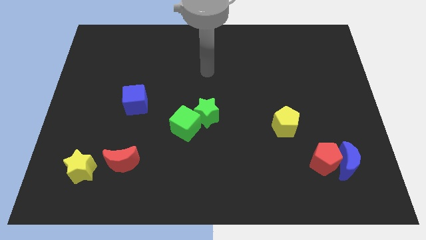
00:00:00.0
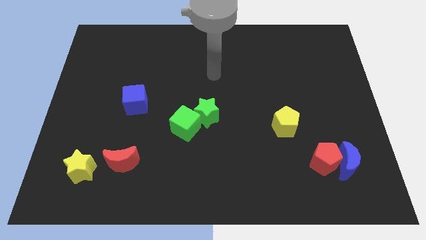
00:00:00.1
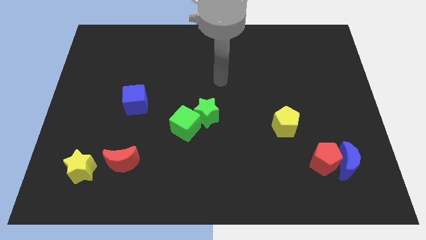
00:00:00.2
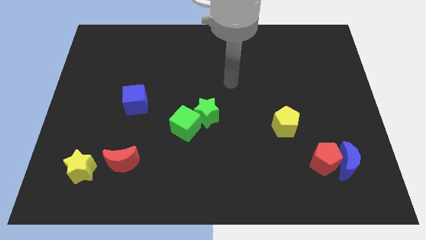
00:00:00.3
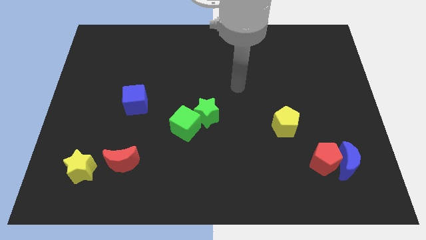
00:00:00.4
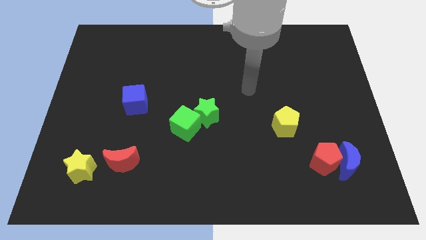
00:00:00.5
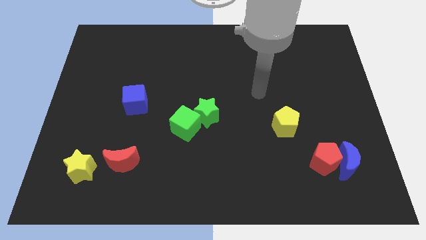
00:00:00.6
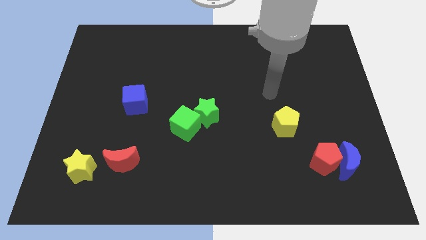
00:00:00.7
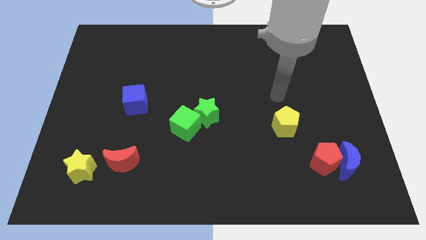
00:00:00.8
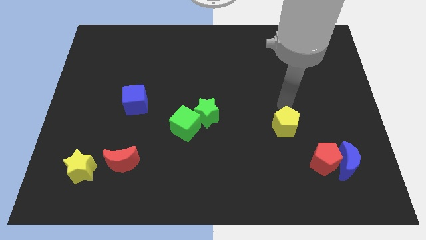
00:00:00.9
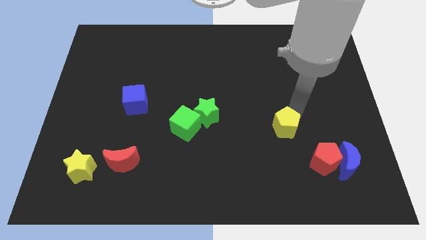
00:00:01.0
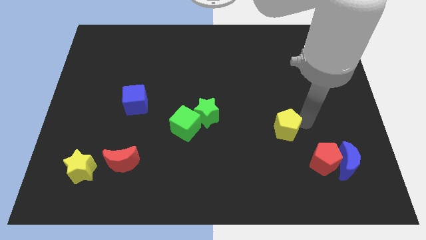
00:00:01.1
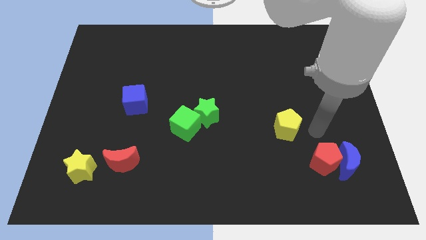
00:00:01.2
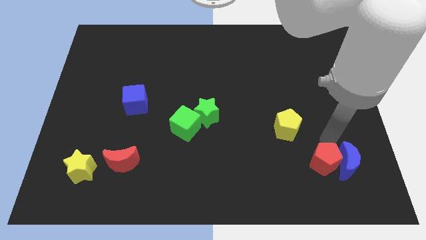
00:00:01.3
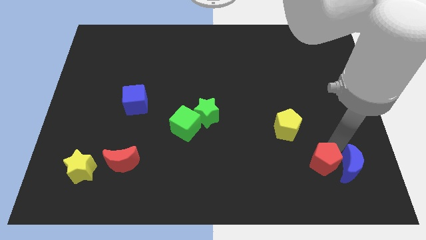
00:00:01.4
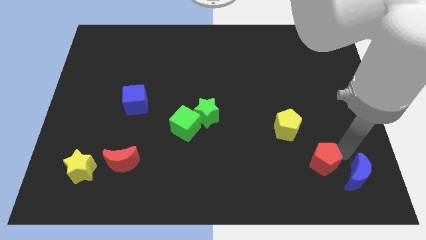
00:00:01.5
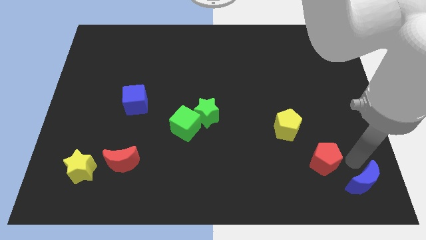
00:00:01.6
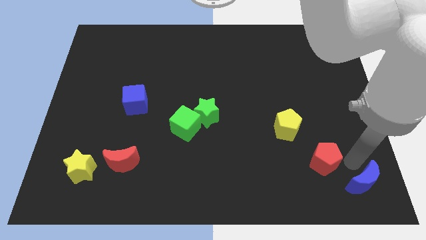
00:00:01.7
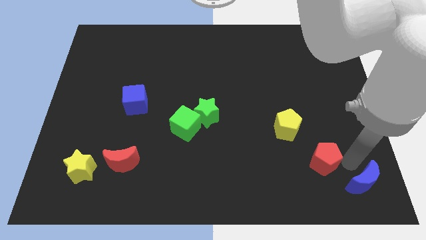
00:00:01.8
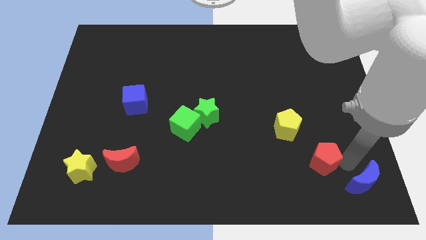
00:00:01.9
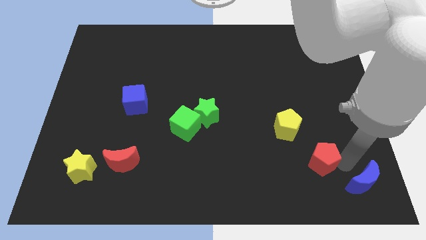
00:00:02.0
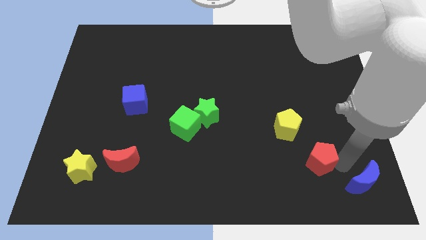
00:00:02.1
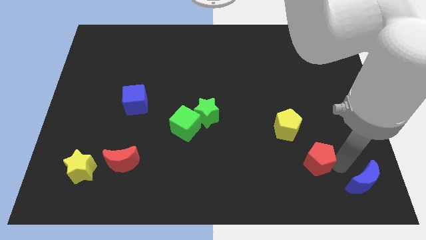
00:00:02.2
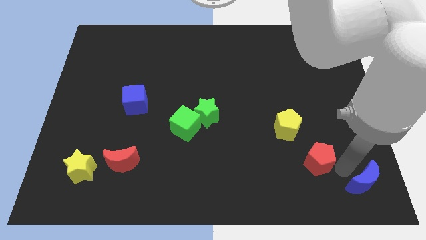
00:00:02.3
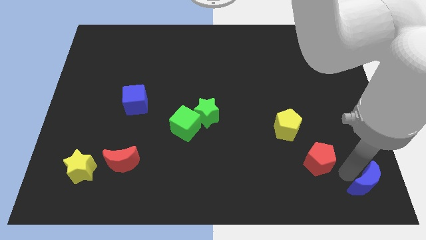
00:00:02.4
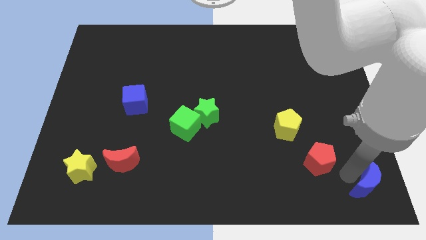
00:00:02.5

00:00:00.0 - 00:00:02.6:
pull the red pentagon apart from the blue moon

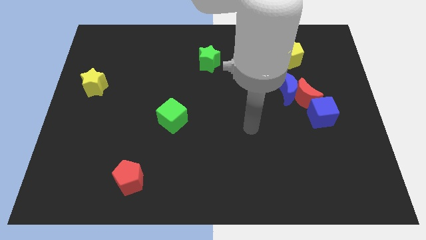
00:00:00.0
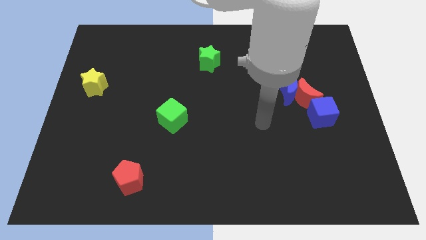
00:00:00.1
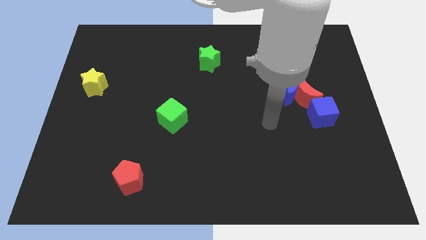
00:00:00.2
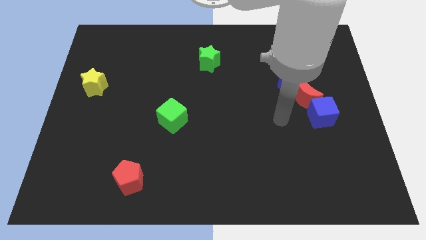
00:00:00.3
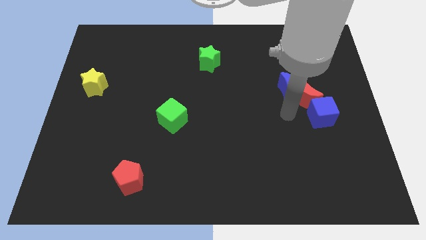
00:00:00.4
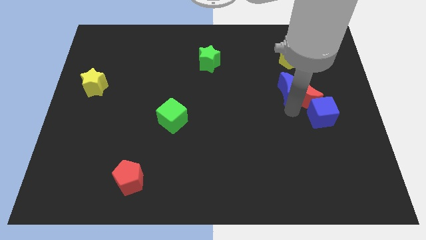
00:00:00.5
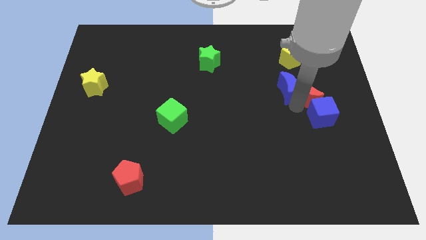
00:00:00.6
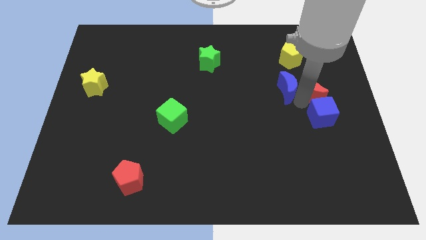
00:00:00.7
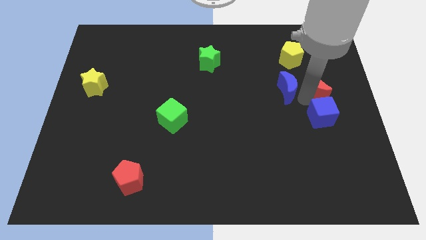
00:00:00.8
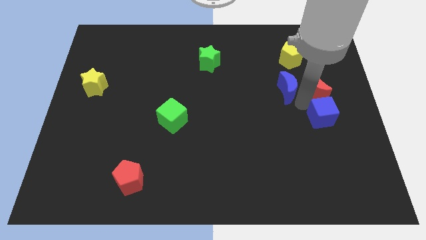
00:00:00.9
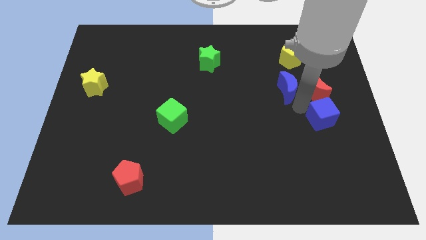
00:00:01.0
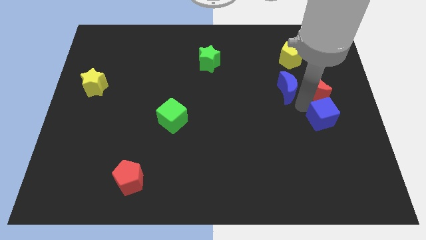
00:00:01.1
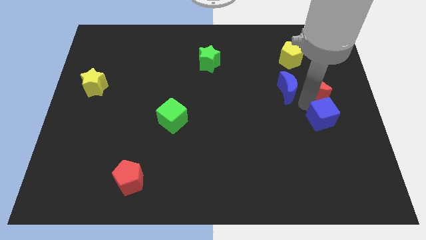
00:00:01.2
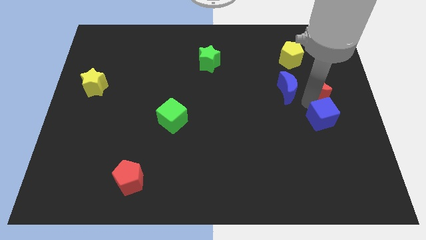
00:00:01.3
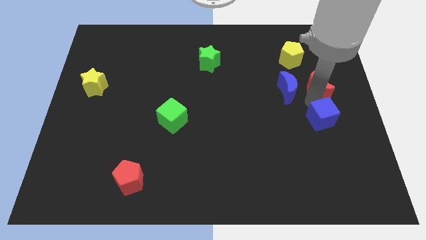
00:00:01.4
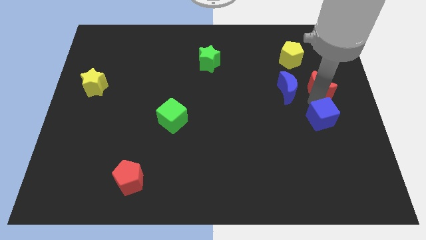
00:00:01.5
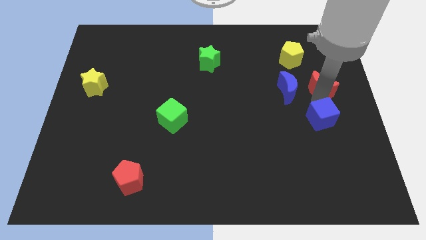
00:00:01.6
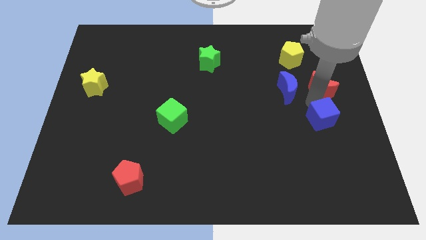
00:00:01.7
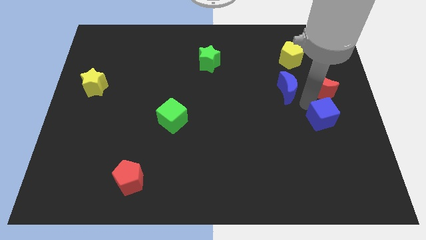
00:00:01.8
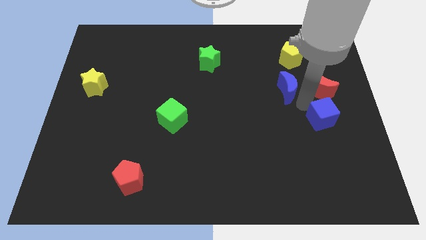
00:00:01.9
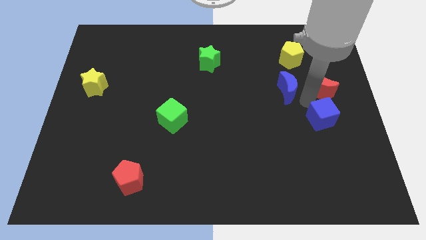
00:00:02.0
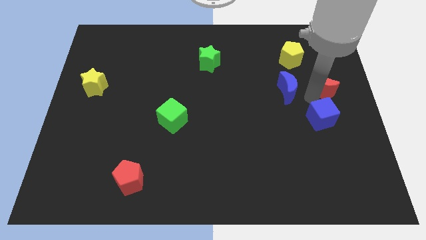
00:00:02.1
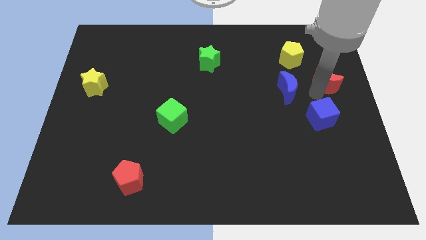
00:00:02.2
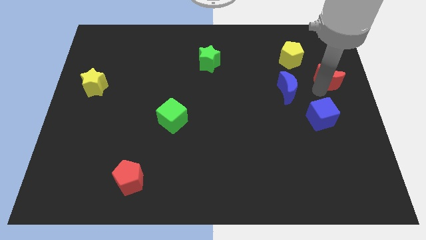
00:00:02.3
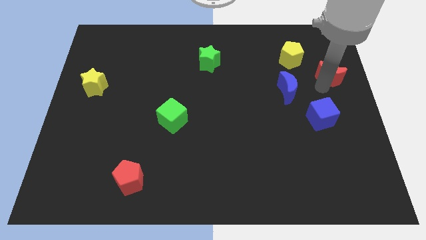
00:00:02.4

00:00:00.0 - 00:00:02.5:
pull the red moon apart from the blue moon and blue cube

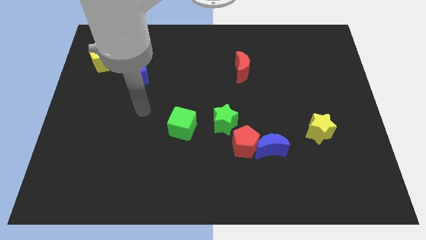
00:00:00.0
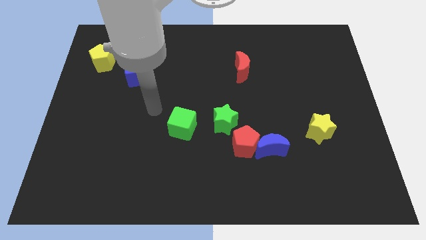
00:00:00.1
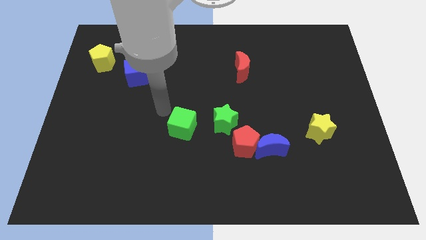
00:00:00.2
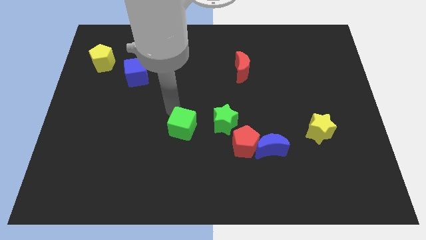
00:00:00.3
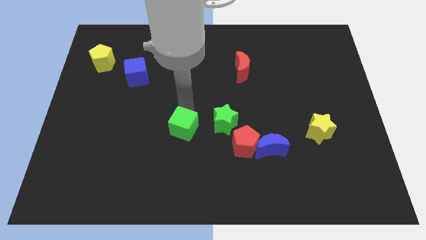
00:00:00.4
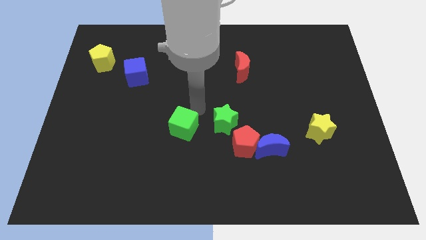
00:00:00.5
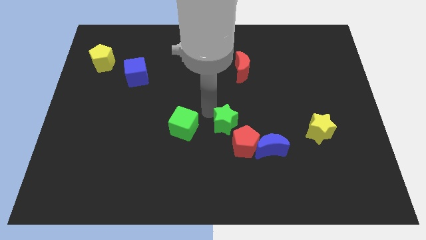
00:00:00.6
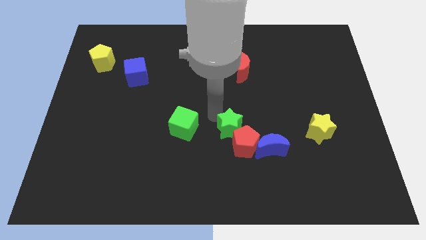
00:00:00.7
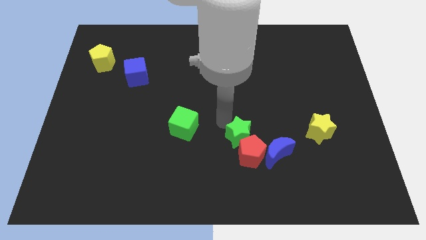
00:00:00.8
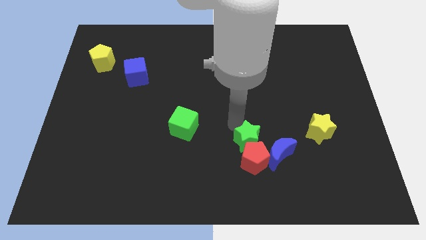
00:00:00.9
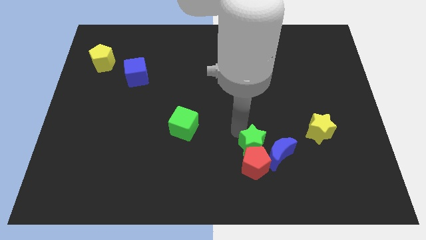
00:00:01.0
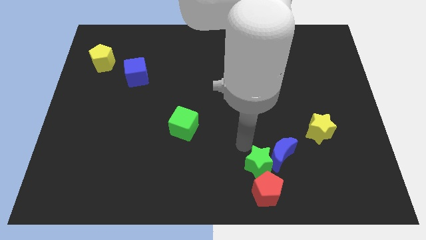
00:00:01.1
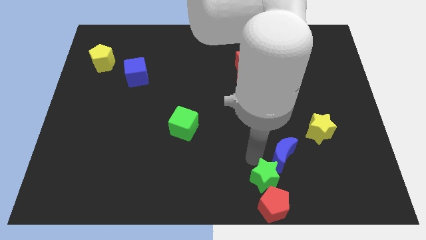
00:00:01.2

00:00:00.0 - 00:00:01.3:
separate the blue moon from the red pentagon

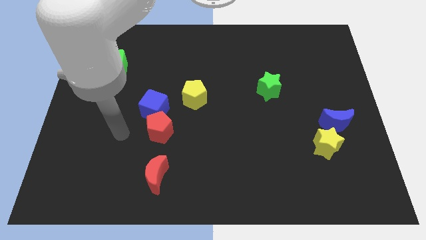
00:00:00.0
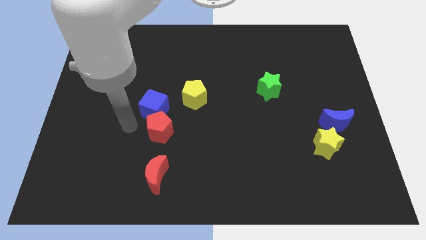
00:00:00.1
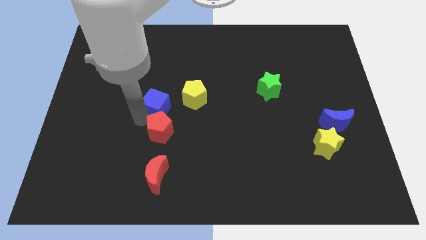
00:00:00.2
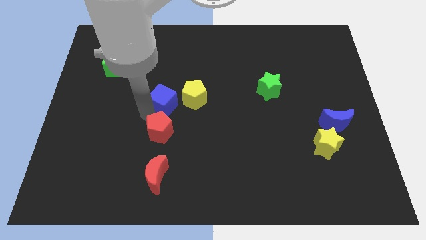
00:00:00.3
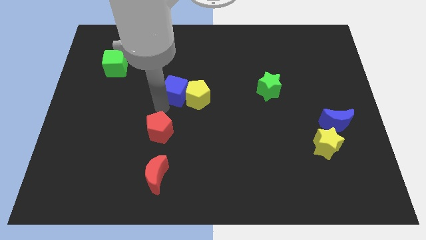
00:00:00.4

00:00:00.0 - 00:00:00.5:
separate the red pentagon from the blue cube

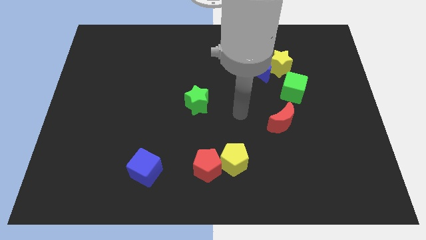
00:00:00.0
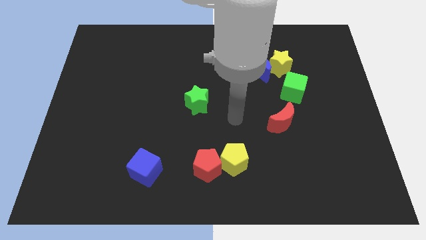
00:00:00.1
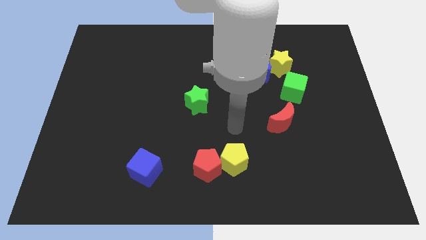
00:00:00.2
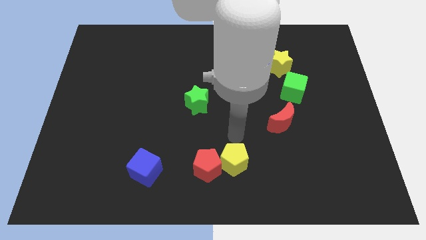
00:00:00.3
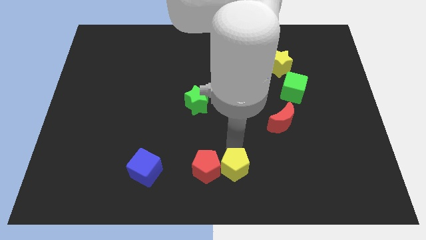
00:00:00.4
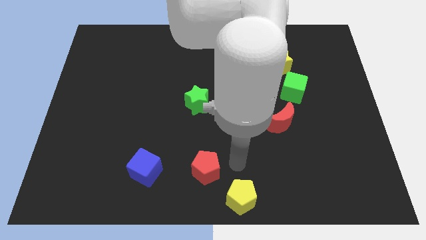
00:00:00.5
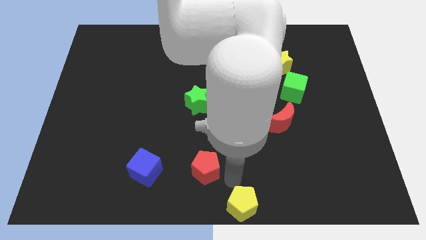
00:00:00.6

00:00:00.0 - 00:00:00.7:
separate the red pentagon from the yellow pentagon

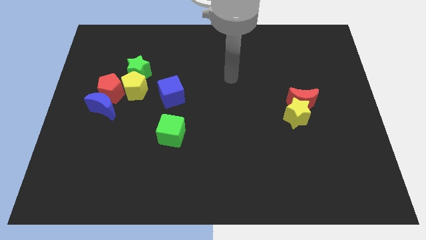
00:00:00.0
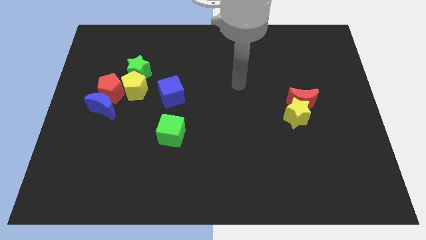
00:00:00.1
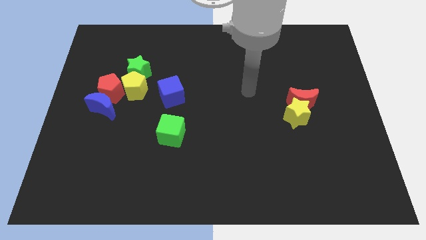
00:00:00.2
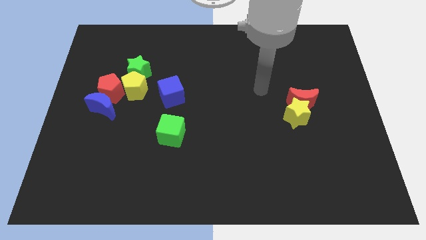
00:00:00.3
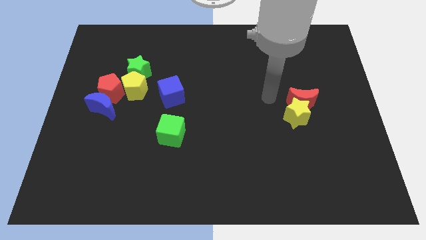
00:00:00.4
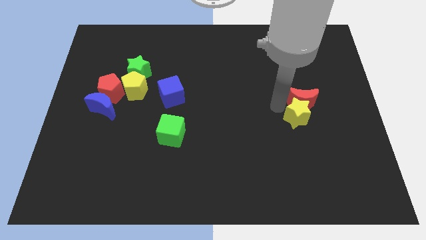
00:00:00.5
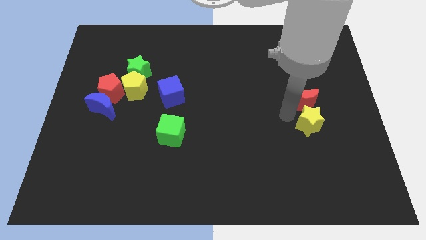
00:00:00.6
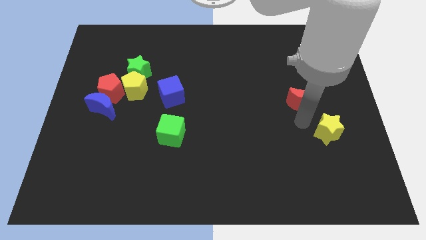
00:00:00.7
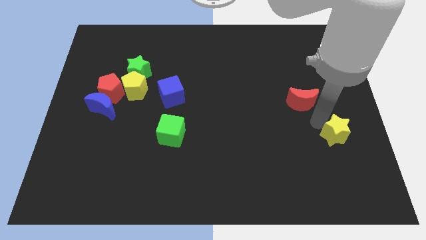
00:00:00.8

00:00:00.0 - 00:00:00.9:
move the red moon away from the yellow star

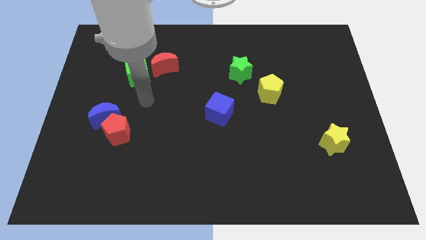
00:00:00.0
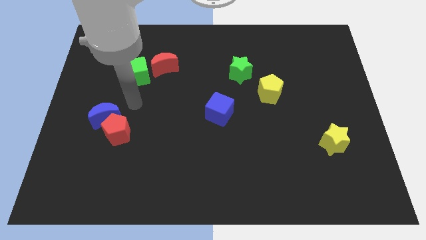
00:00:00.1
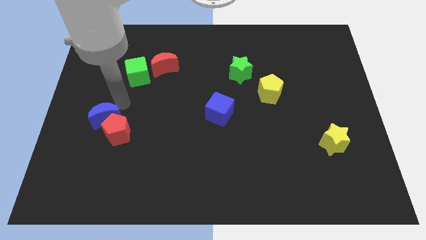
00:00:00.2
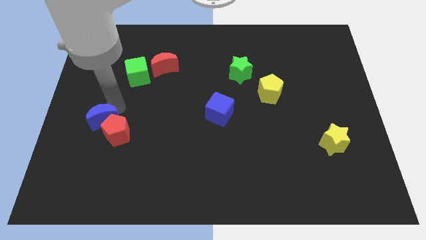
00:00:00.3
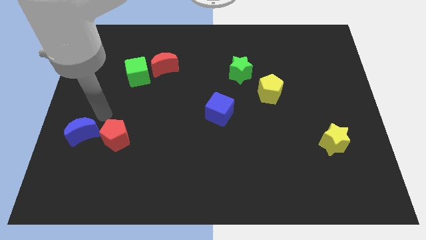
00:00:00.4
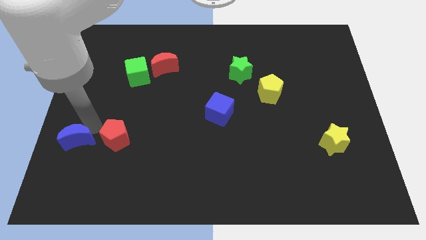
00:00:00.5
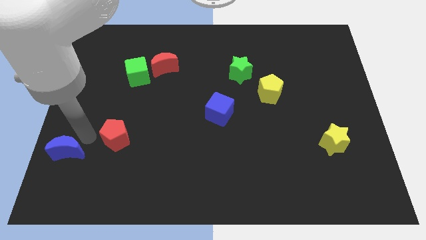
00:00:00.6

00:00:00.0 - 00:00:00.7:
separate the red pentagon from the blue moon
